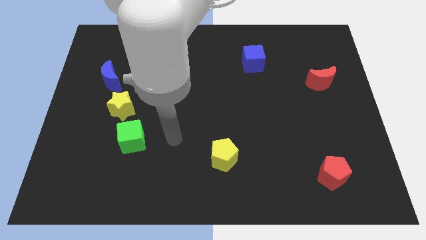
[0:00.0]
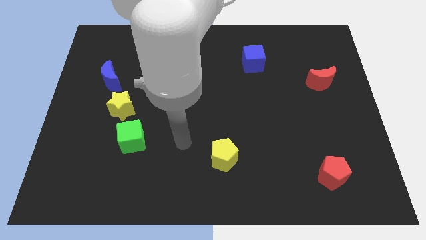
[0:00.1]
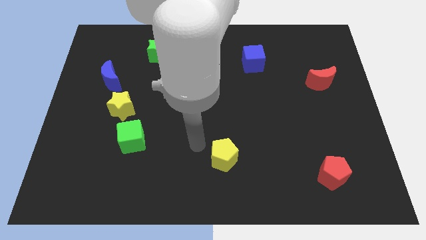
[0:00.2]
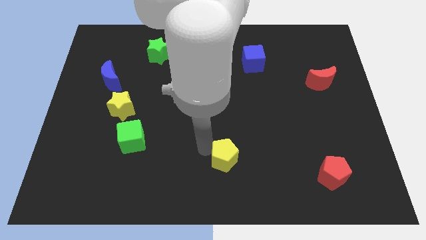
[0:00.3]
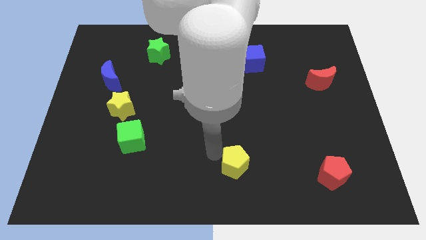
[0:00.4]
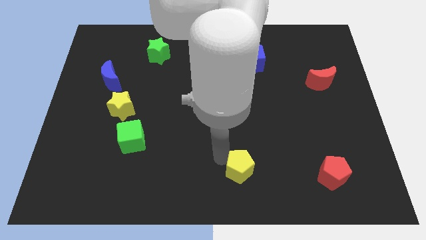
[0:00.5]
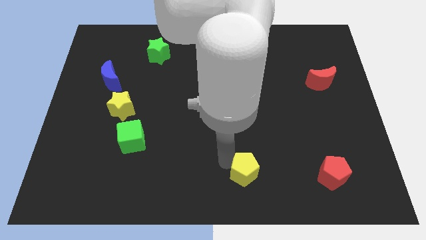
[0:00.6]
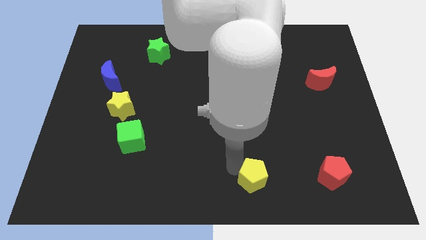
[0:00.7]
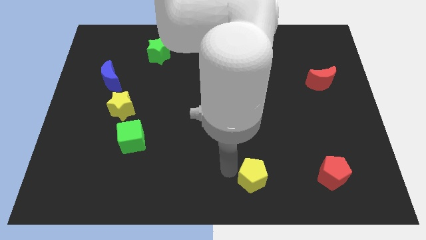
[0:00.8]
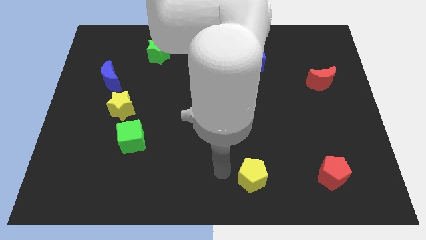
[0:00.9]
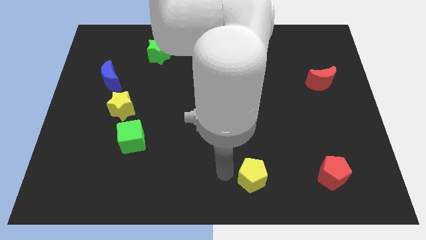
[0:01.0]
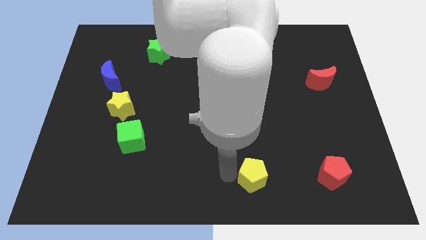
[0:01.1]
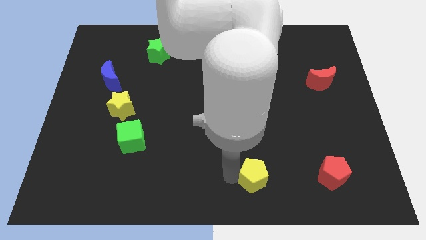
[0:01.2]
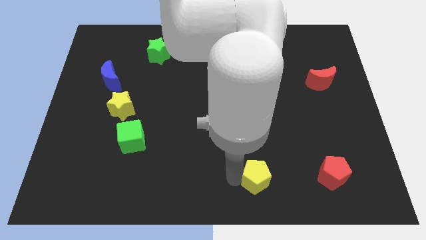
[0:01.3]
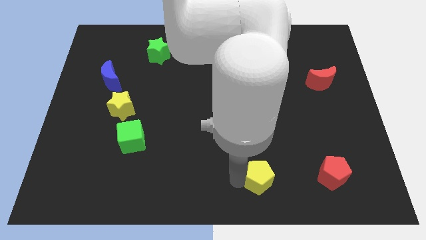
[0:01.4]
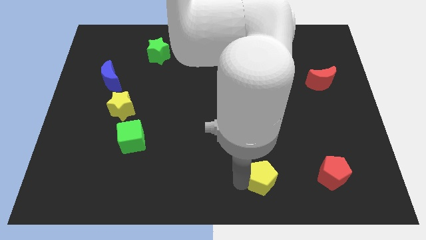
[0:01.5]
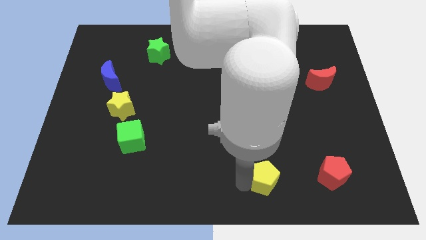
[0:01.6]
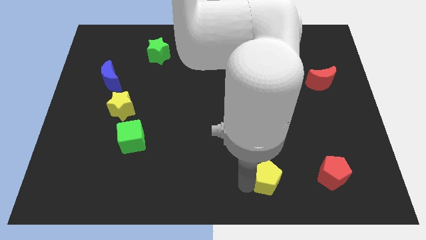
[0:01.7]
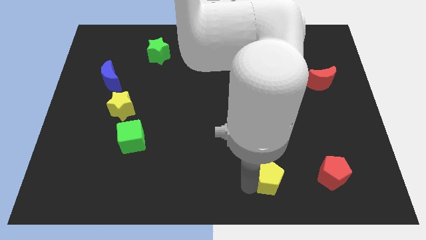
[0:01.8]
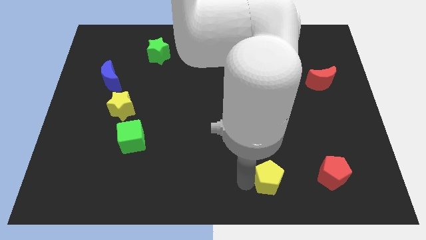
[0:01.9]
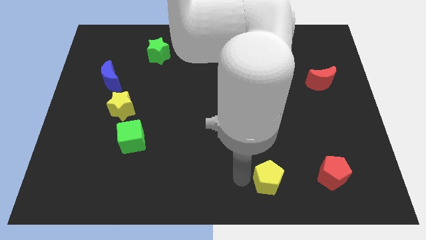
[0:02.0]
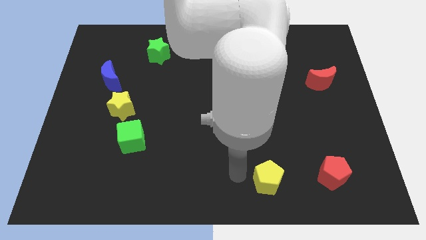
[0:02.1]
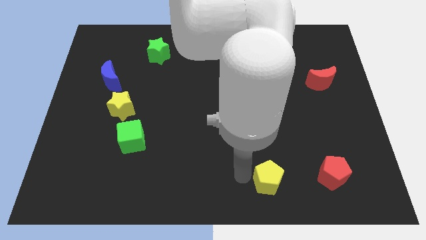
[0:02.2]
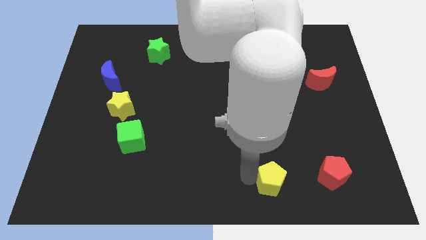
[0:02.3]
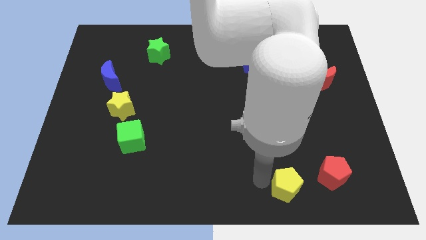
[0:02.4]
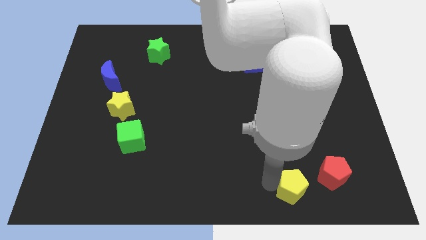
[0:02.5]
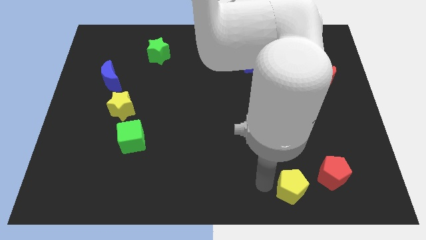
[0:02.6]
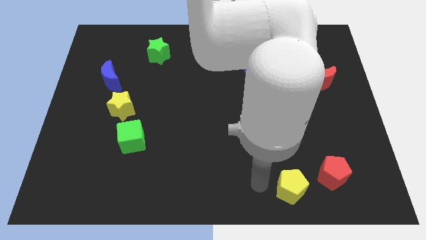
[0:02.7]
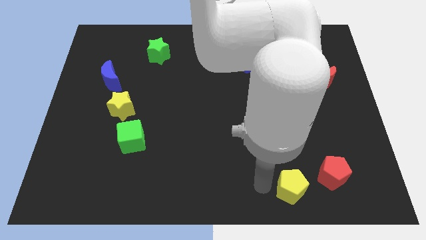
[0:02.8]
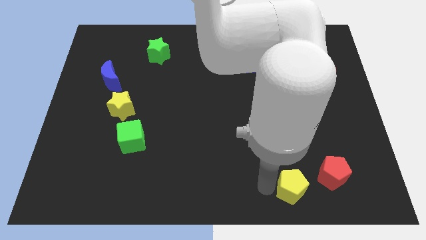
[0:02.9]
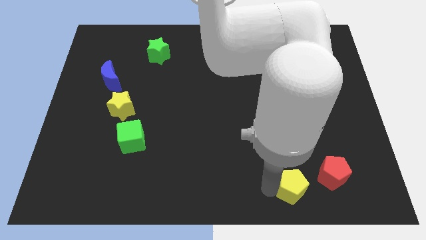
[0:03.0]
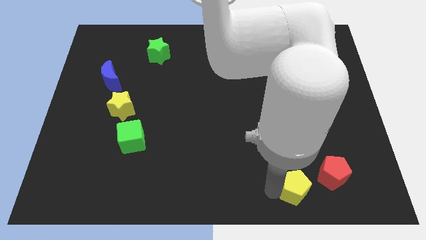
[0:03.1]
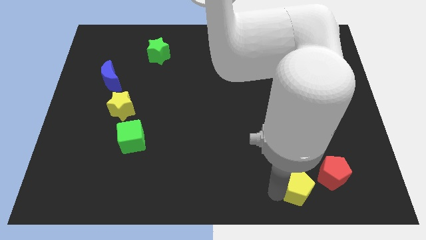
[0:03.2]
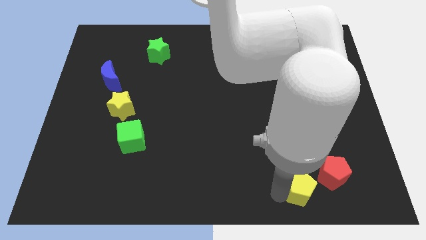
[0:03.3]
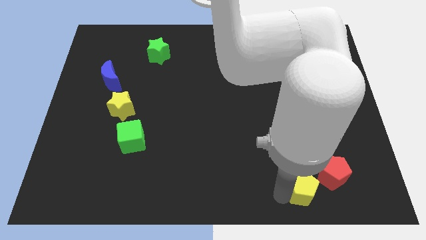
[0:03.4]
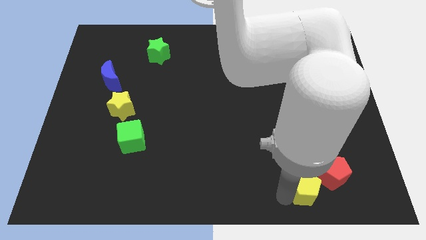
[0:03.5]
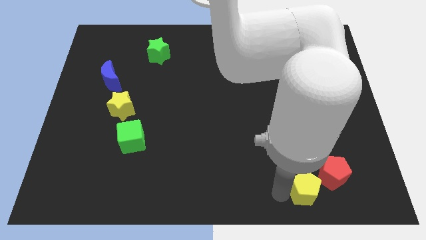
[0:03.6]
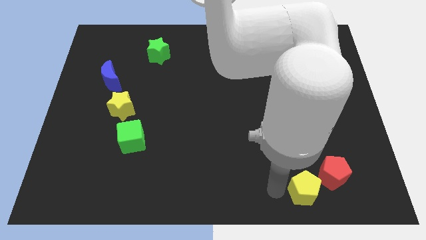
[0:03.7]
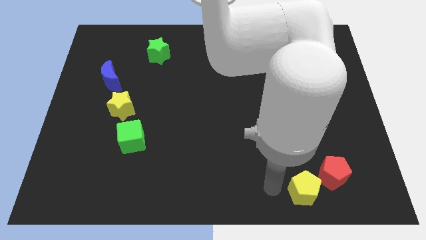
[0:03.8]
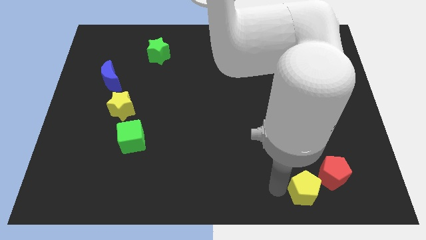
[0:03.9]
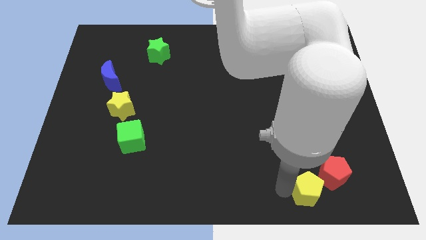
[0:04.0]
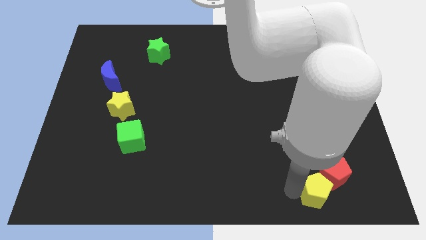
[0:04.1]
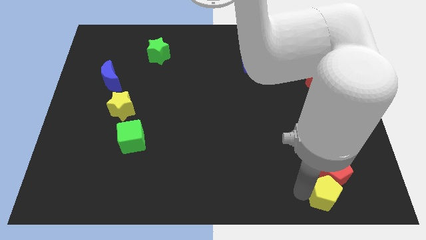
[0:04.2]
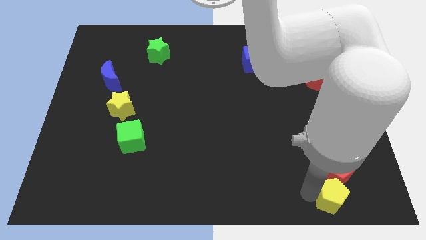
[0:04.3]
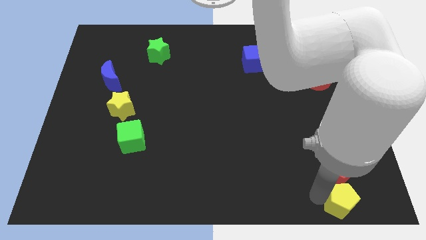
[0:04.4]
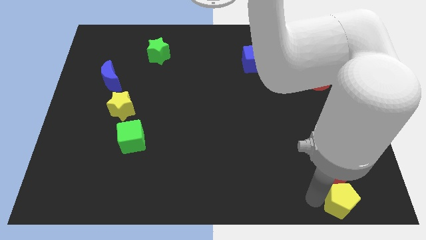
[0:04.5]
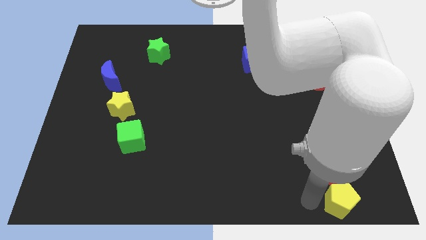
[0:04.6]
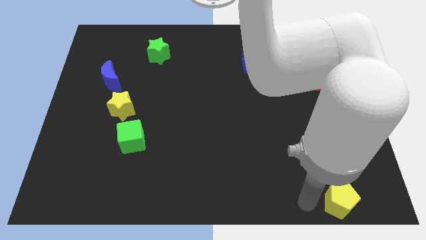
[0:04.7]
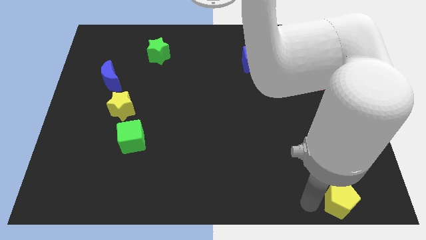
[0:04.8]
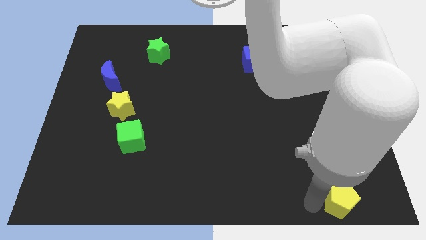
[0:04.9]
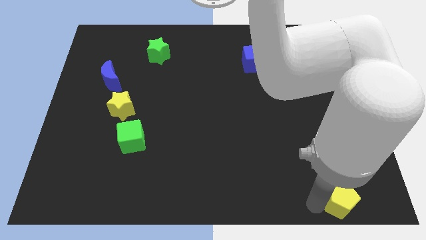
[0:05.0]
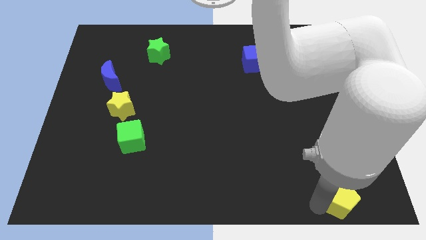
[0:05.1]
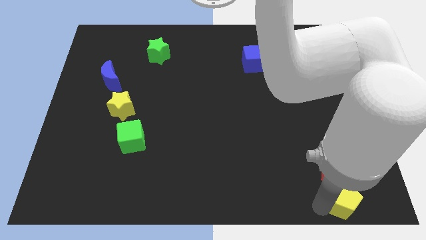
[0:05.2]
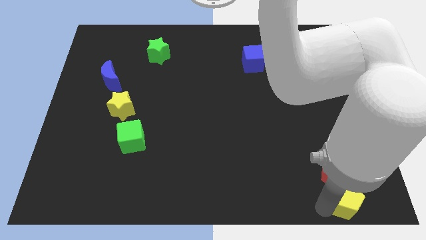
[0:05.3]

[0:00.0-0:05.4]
put the yellow pentagon to the bottom right

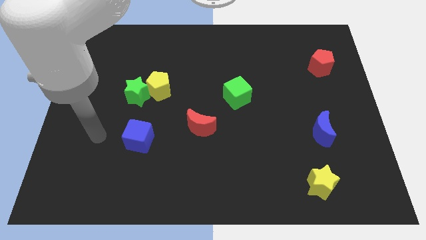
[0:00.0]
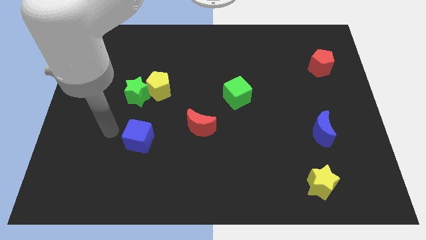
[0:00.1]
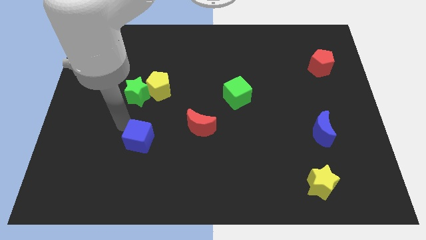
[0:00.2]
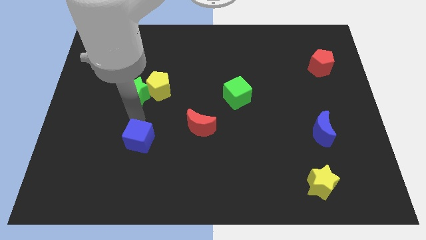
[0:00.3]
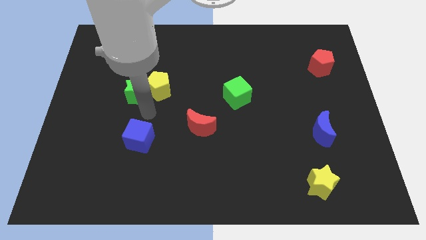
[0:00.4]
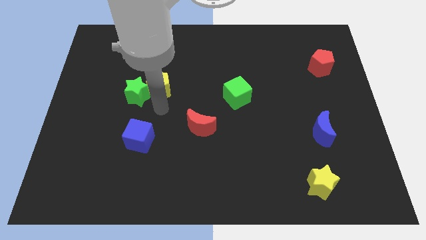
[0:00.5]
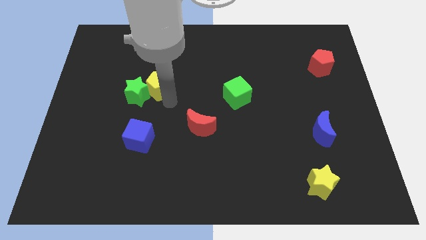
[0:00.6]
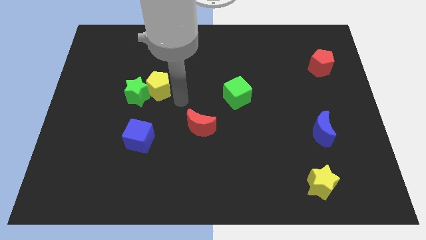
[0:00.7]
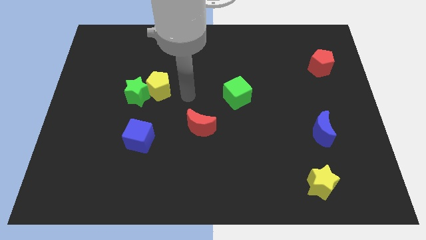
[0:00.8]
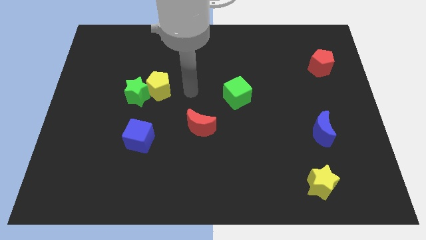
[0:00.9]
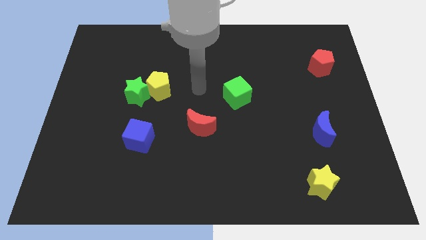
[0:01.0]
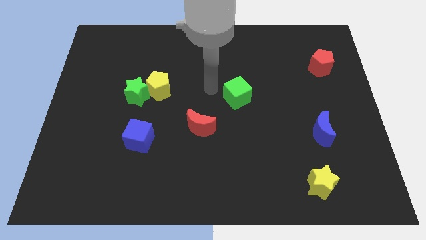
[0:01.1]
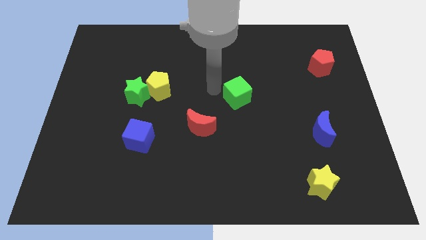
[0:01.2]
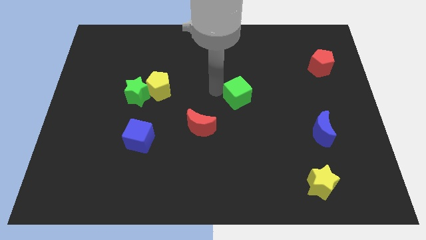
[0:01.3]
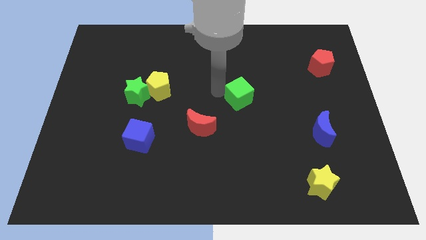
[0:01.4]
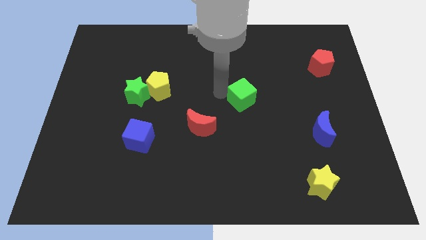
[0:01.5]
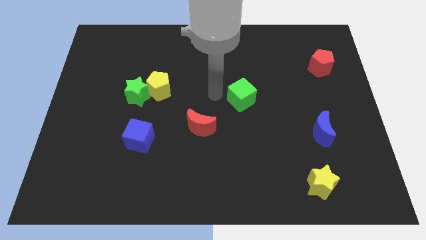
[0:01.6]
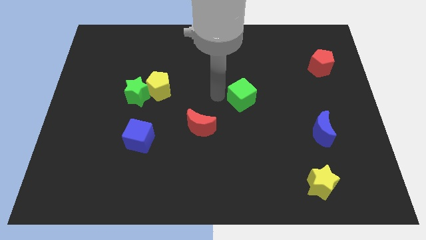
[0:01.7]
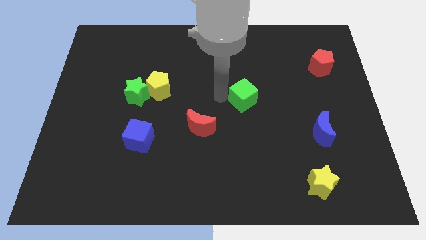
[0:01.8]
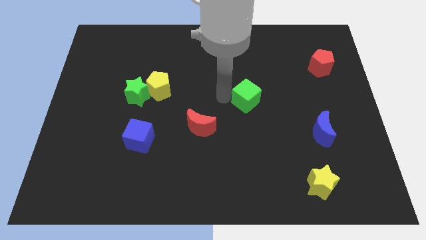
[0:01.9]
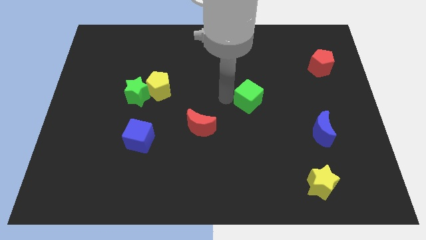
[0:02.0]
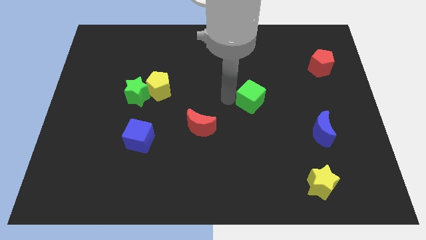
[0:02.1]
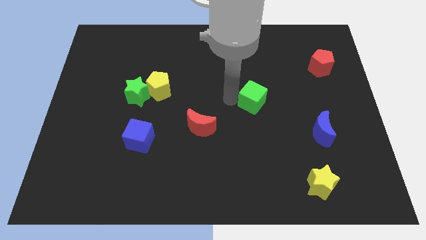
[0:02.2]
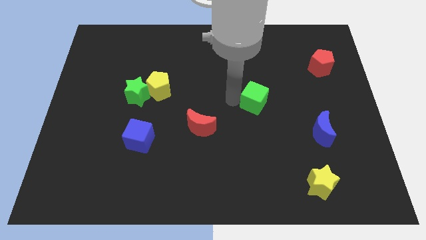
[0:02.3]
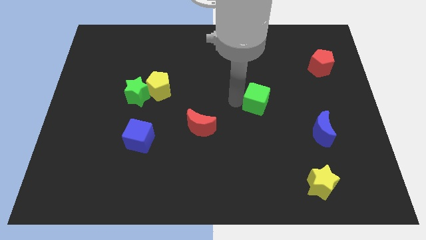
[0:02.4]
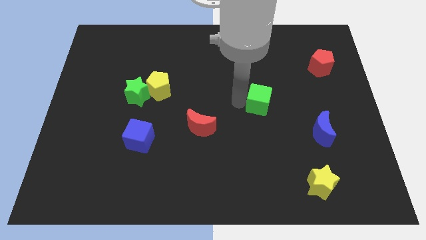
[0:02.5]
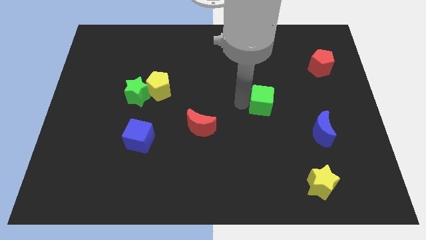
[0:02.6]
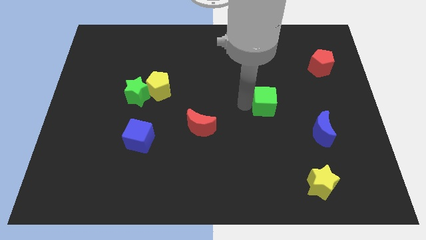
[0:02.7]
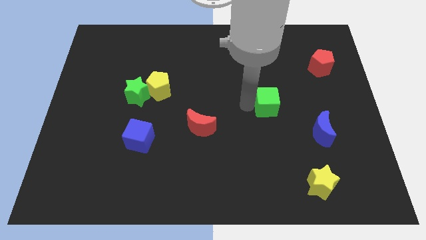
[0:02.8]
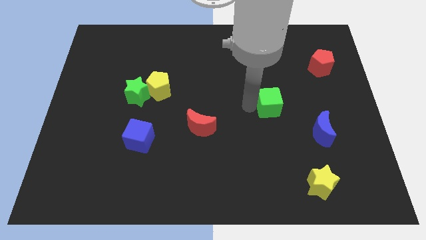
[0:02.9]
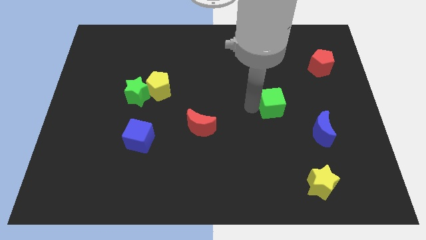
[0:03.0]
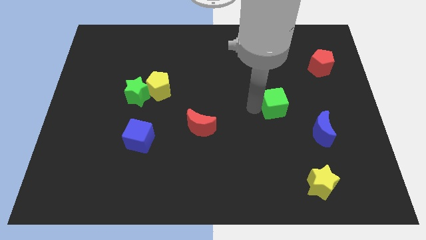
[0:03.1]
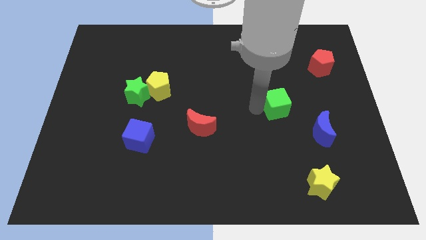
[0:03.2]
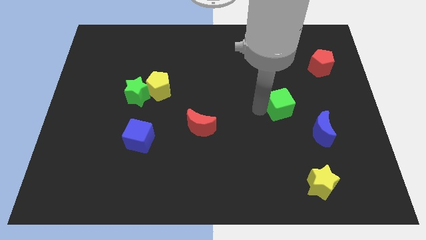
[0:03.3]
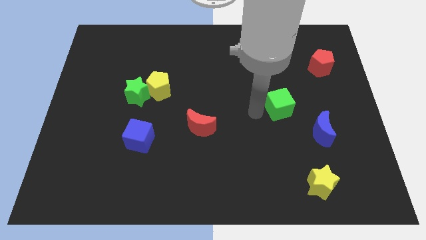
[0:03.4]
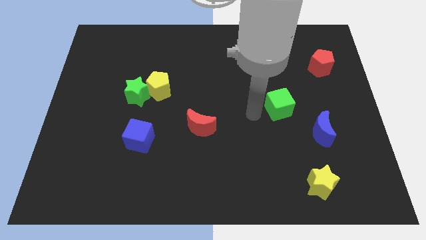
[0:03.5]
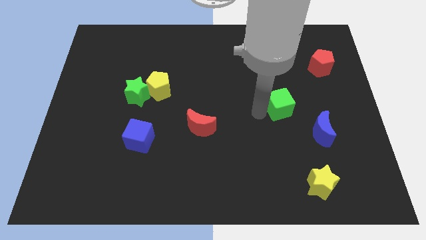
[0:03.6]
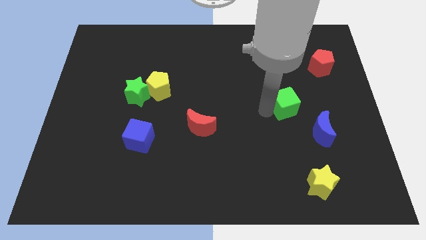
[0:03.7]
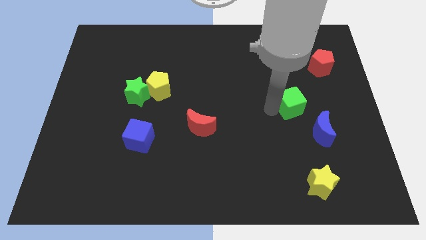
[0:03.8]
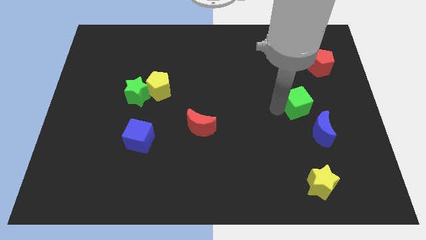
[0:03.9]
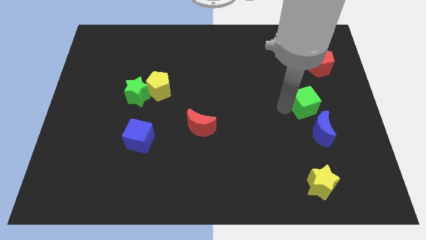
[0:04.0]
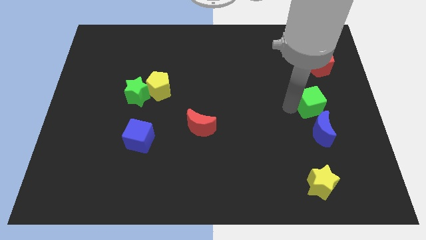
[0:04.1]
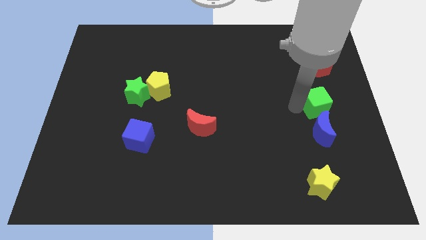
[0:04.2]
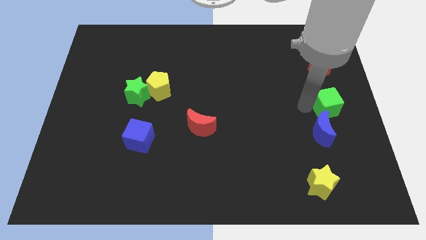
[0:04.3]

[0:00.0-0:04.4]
move the green cube to the right side
